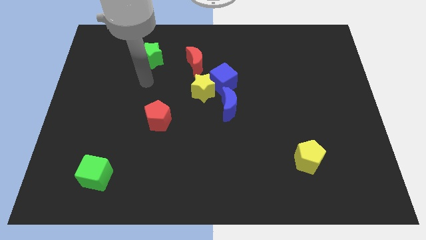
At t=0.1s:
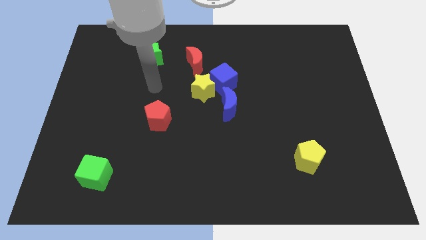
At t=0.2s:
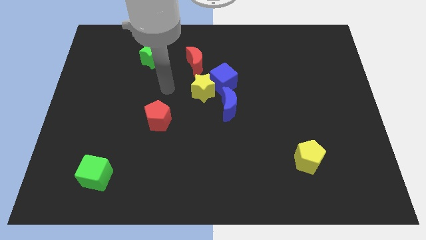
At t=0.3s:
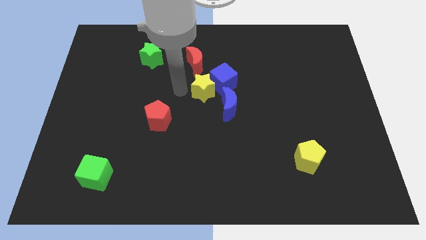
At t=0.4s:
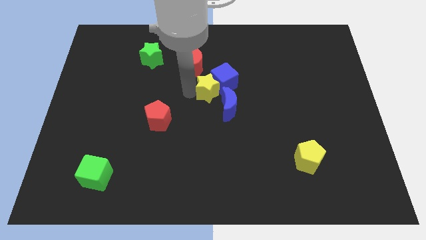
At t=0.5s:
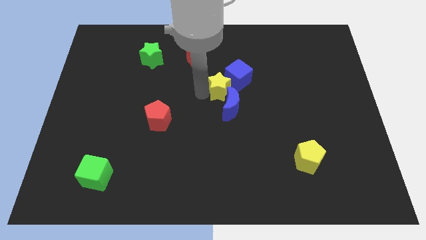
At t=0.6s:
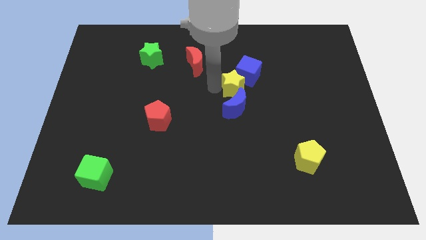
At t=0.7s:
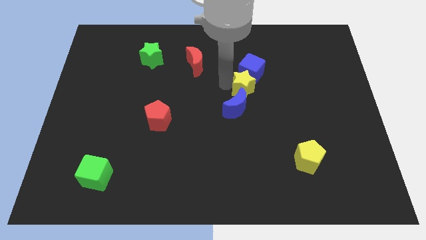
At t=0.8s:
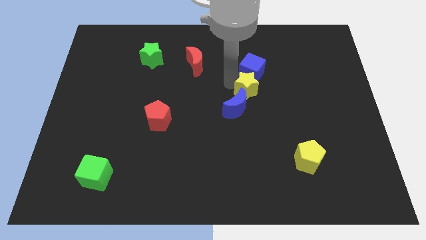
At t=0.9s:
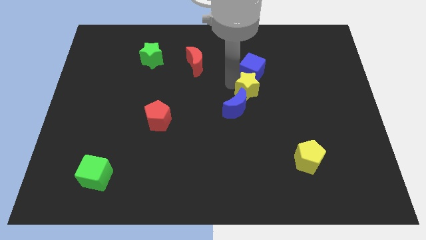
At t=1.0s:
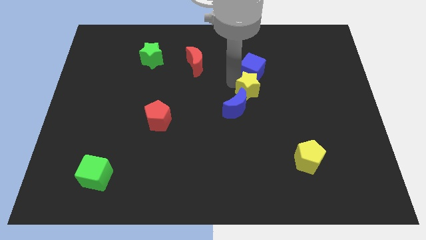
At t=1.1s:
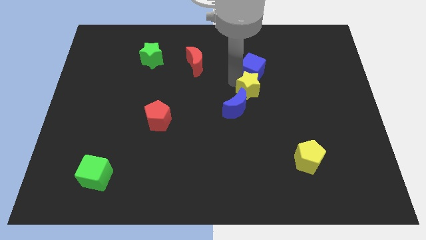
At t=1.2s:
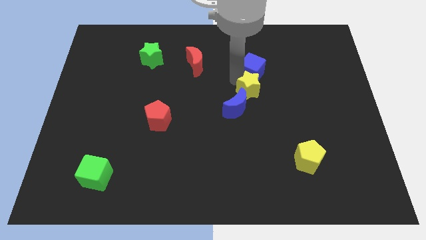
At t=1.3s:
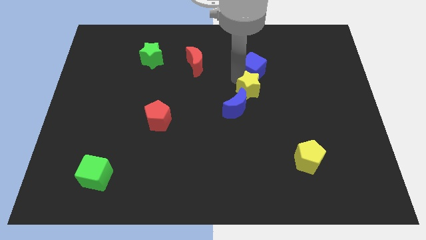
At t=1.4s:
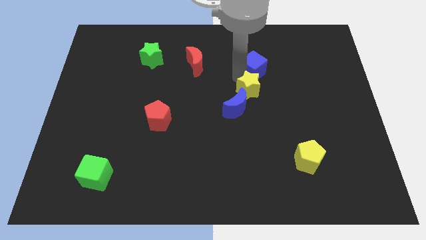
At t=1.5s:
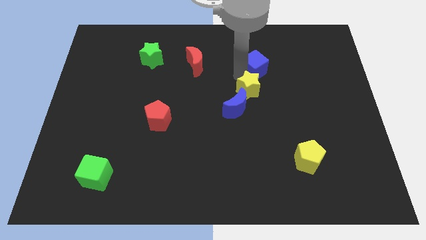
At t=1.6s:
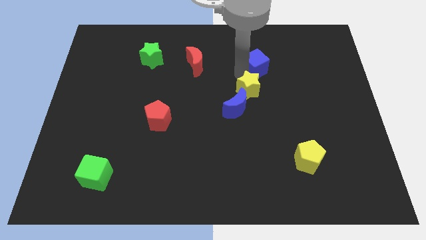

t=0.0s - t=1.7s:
separate the blue cube from the group of blocks

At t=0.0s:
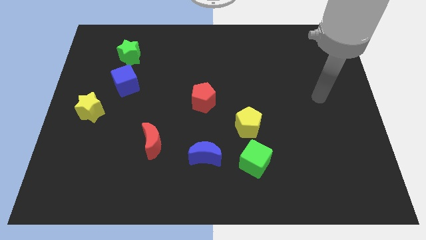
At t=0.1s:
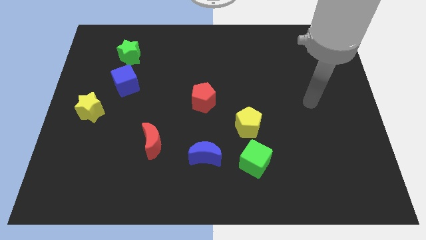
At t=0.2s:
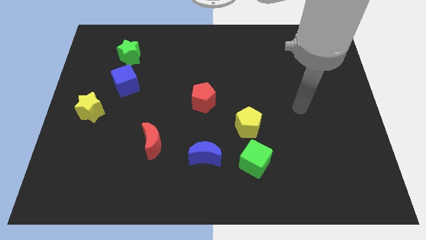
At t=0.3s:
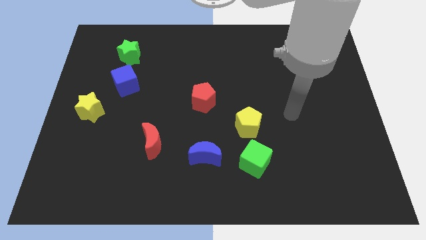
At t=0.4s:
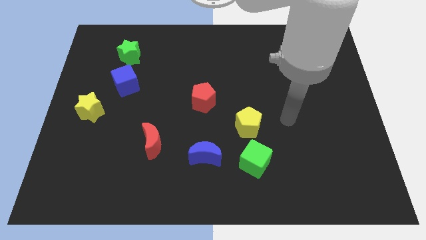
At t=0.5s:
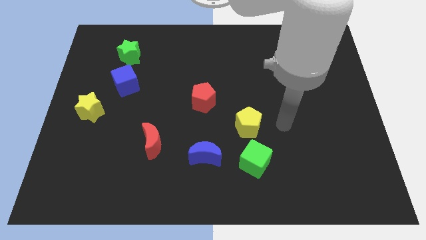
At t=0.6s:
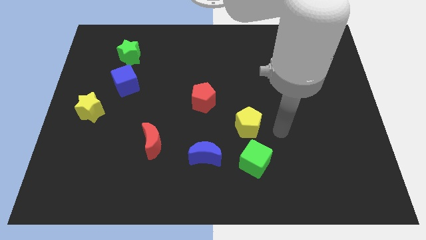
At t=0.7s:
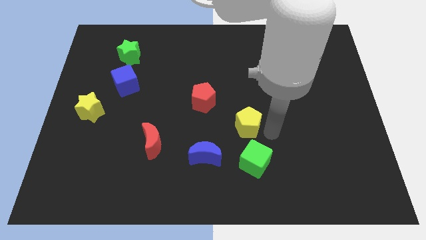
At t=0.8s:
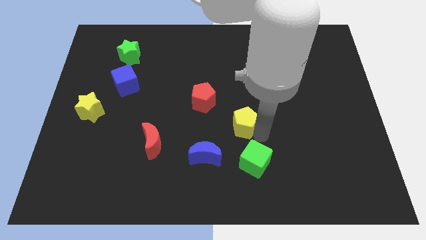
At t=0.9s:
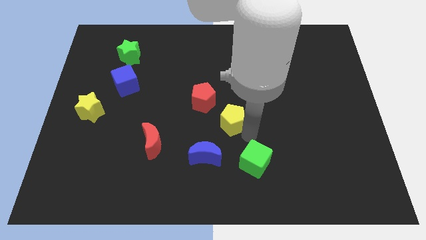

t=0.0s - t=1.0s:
move the green cube away from the yellow pentagon

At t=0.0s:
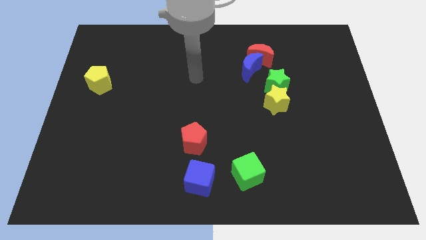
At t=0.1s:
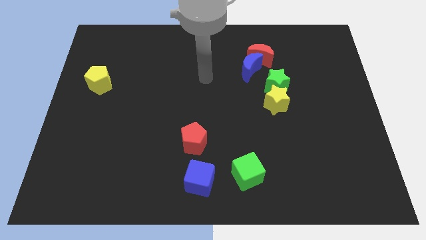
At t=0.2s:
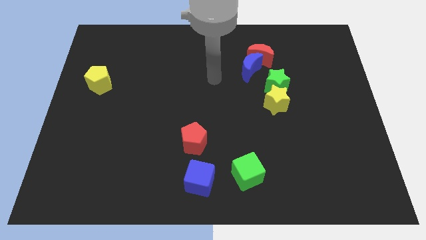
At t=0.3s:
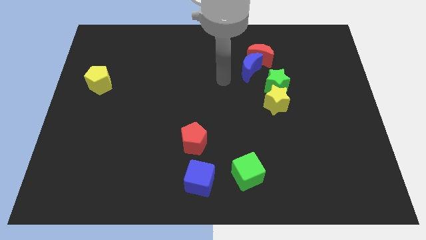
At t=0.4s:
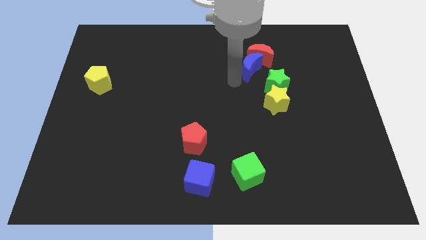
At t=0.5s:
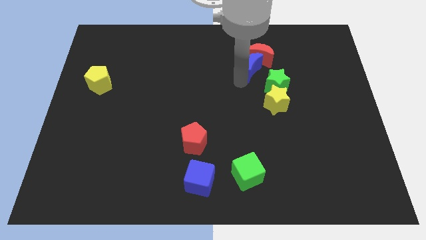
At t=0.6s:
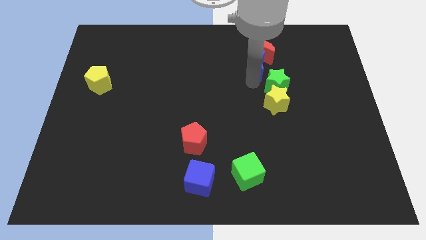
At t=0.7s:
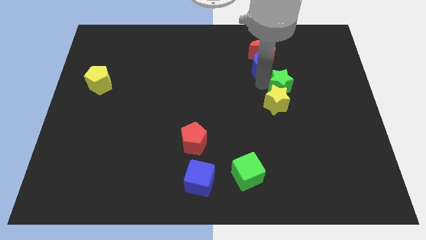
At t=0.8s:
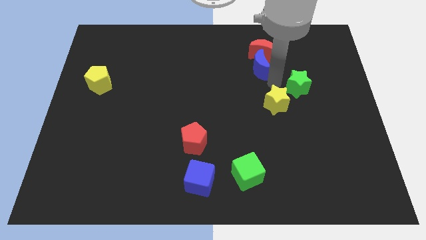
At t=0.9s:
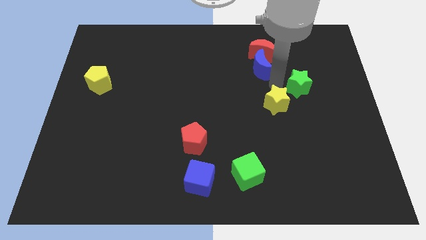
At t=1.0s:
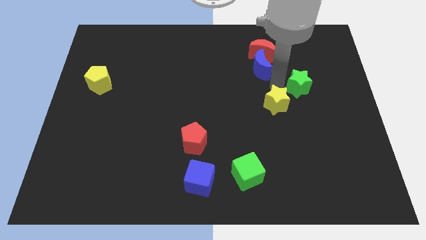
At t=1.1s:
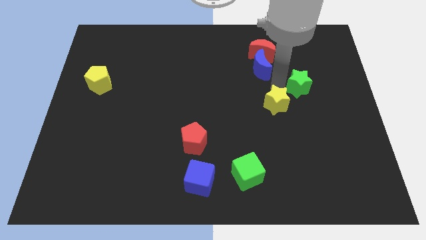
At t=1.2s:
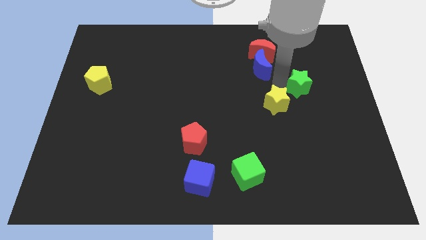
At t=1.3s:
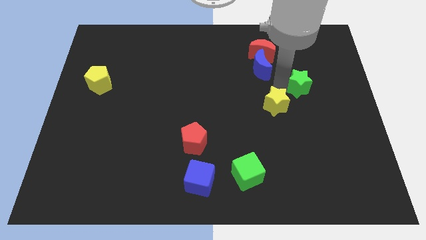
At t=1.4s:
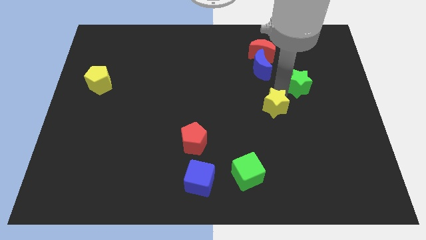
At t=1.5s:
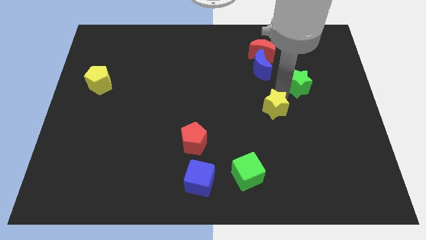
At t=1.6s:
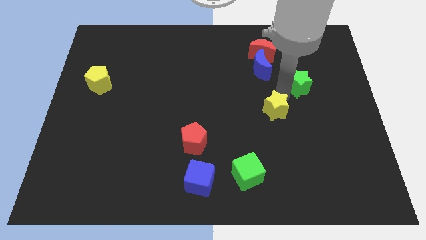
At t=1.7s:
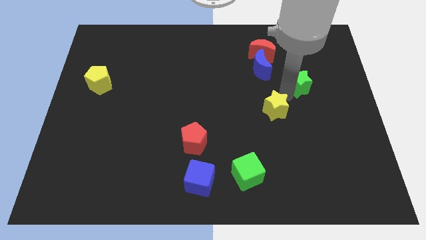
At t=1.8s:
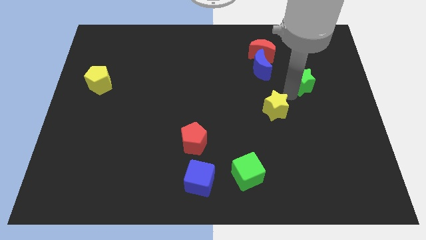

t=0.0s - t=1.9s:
move the yellow star away from the green star

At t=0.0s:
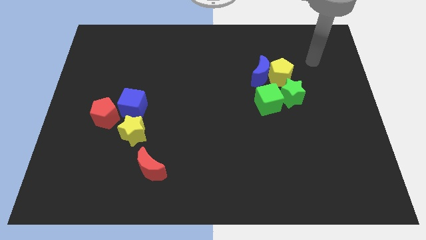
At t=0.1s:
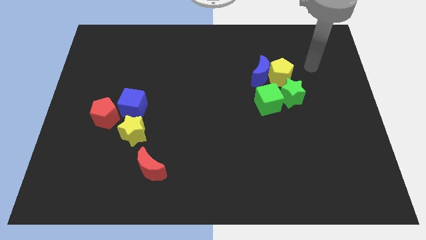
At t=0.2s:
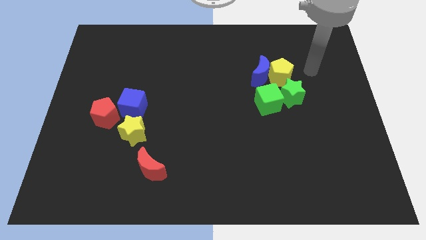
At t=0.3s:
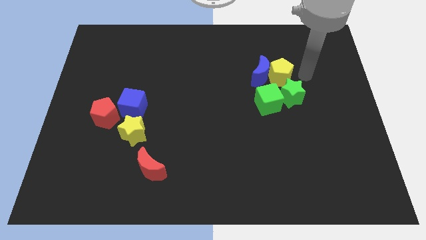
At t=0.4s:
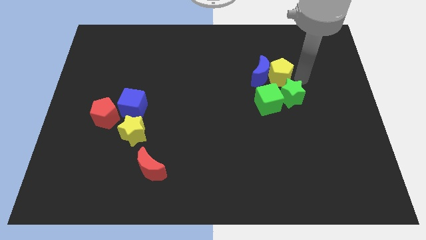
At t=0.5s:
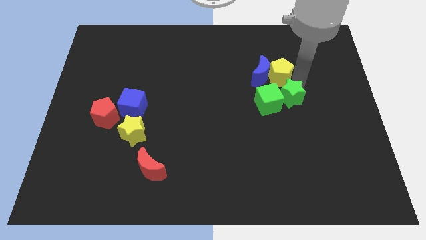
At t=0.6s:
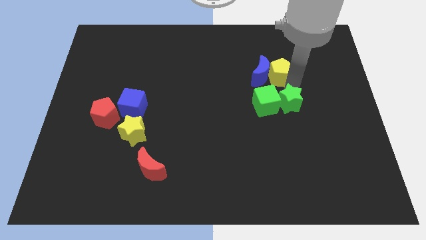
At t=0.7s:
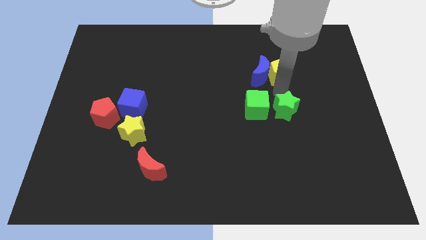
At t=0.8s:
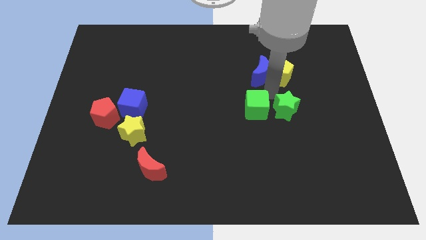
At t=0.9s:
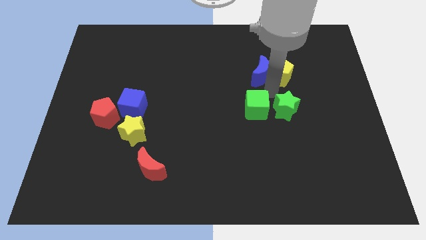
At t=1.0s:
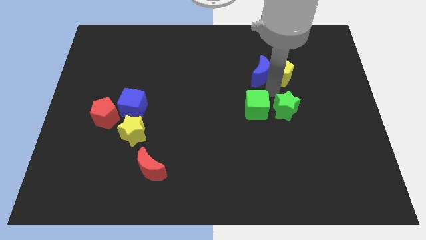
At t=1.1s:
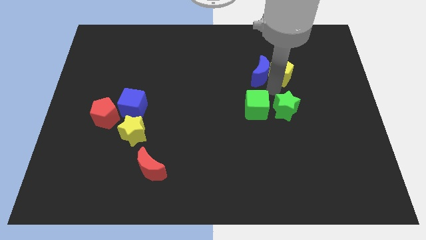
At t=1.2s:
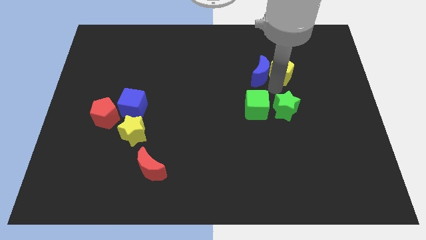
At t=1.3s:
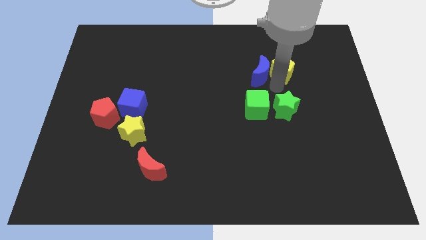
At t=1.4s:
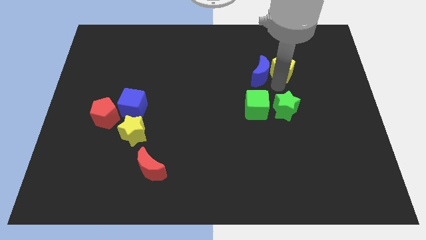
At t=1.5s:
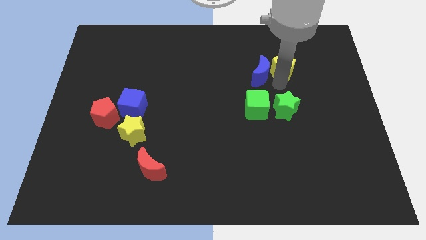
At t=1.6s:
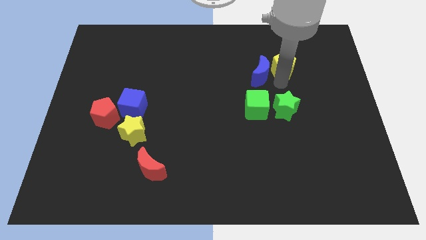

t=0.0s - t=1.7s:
separate the yellow pentagon from the group

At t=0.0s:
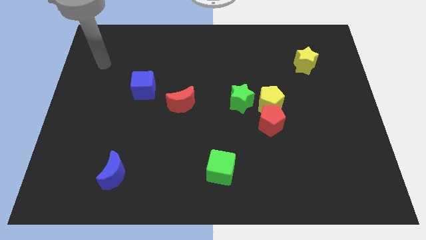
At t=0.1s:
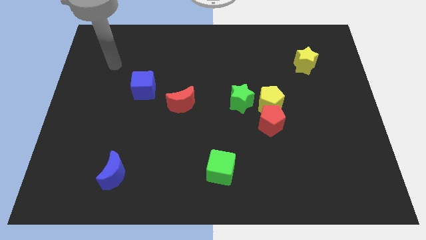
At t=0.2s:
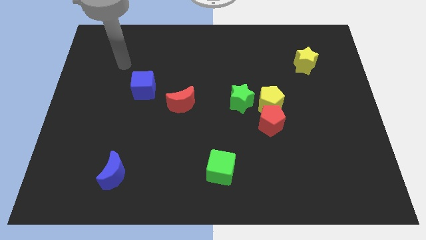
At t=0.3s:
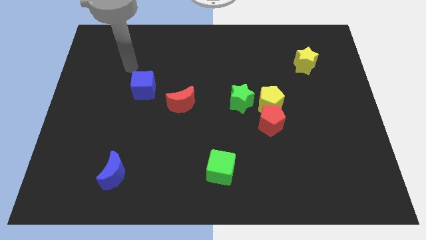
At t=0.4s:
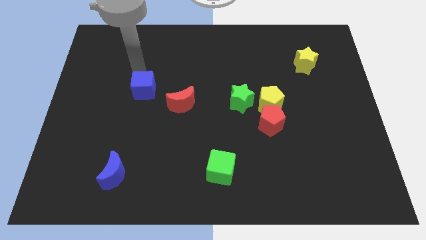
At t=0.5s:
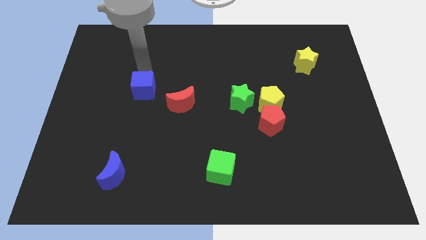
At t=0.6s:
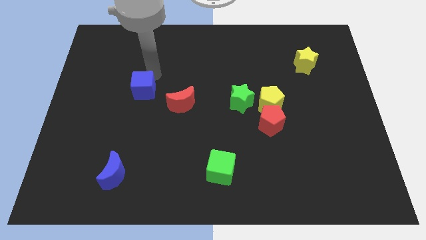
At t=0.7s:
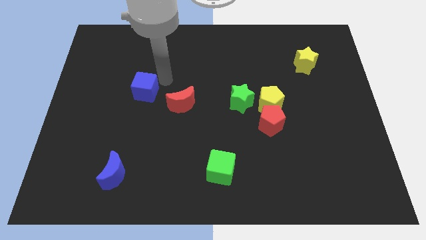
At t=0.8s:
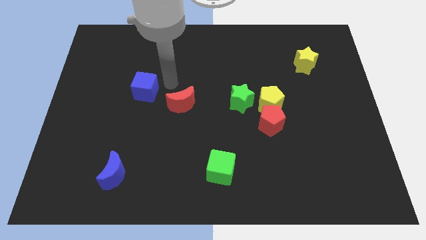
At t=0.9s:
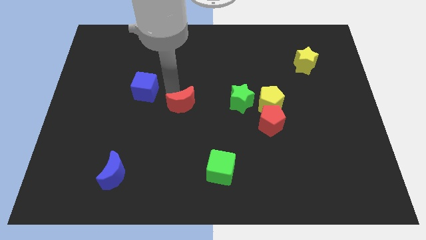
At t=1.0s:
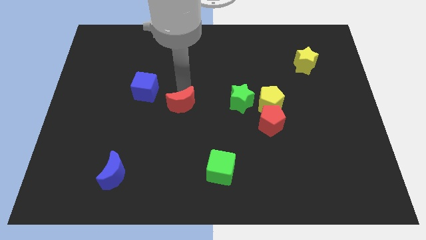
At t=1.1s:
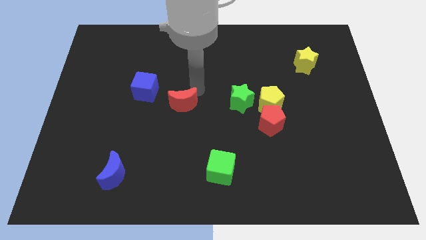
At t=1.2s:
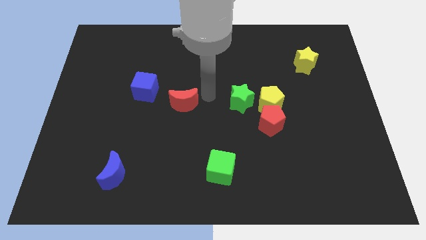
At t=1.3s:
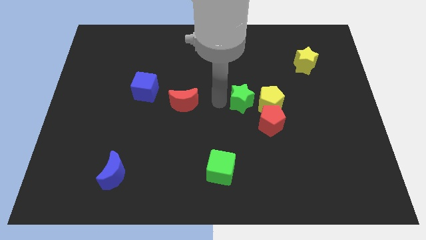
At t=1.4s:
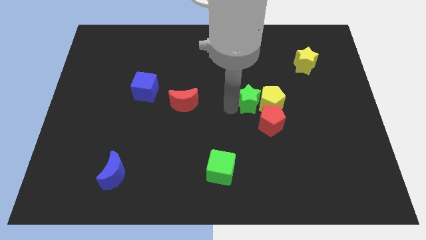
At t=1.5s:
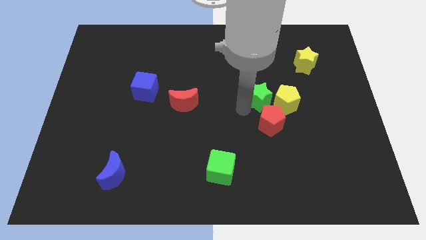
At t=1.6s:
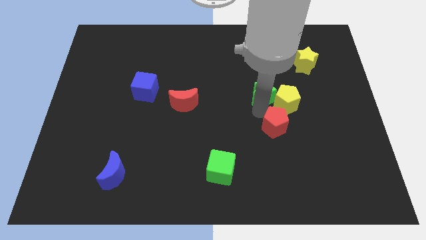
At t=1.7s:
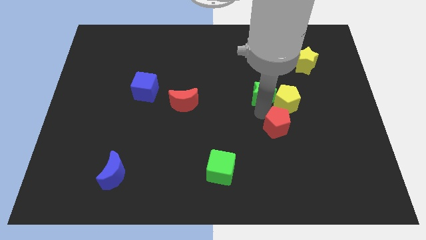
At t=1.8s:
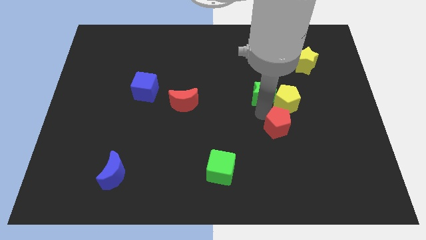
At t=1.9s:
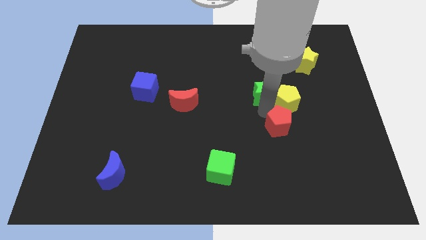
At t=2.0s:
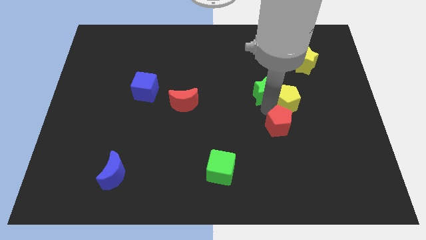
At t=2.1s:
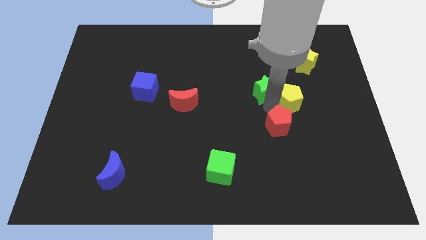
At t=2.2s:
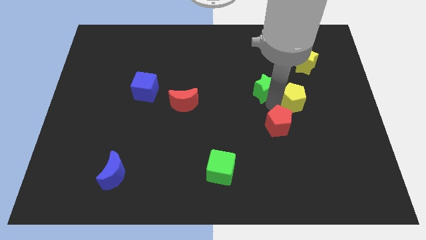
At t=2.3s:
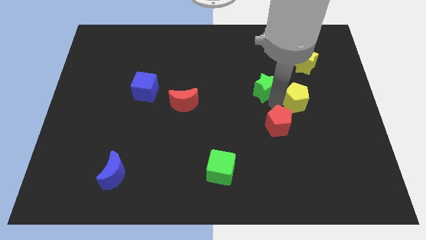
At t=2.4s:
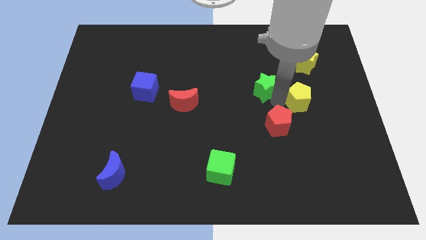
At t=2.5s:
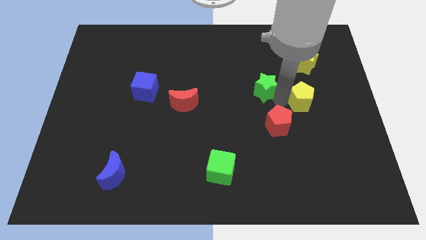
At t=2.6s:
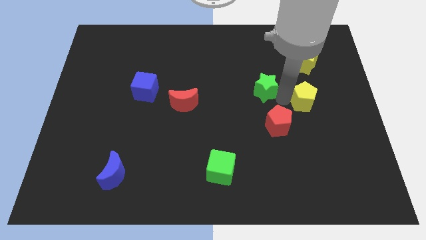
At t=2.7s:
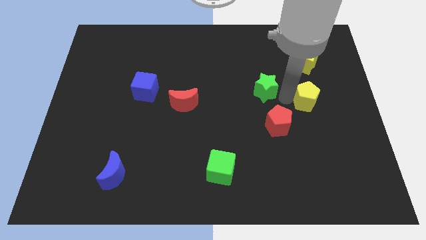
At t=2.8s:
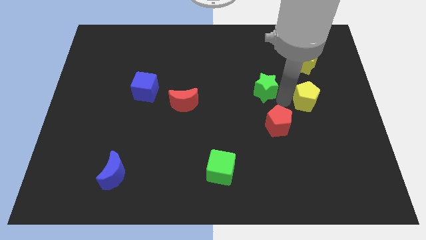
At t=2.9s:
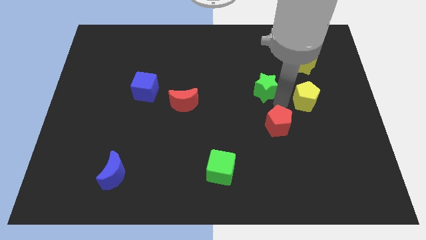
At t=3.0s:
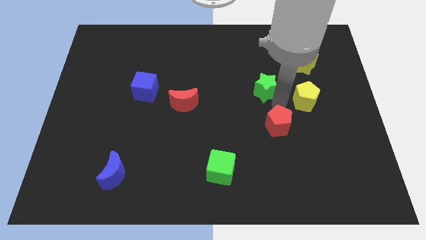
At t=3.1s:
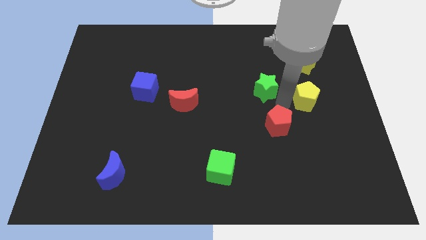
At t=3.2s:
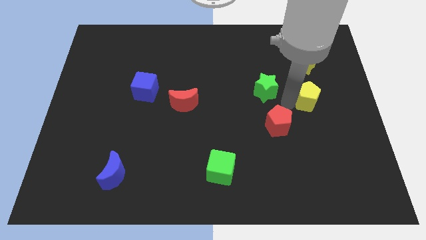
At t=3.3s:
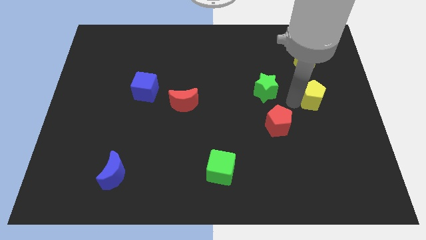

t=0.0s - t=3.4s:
separate the yellow pentagon from the red pentagon and green star
